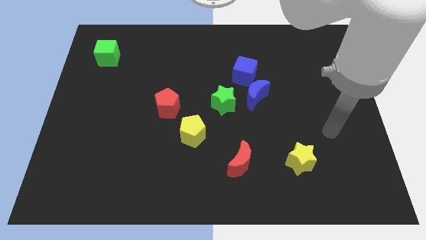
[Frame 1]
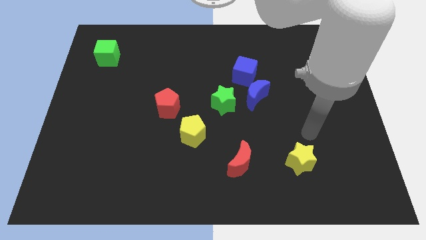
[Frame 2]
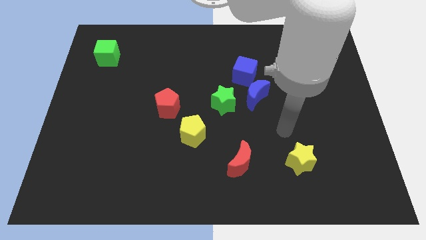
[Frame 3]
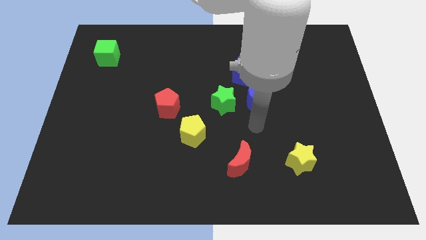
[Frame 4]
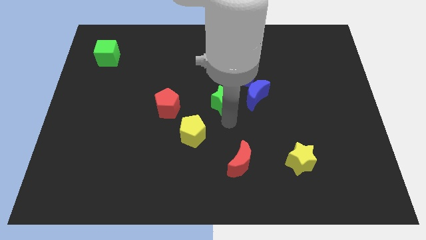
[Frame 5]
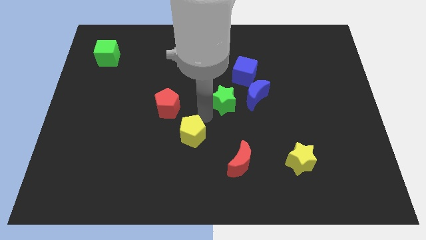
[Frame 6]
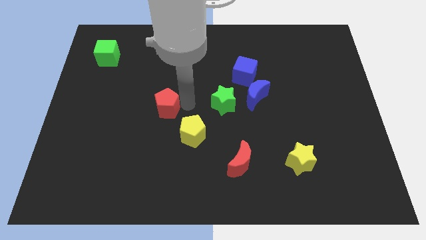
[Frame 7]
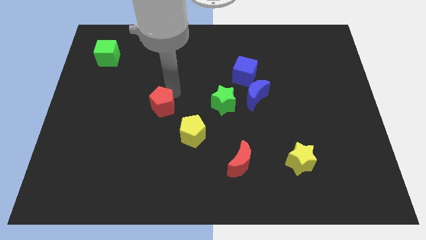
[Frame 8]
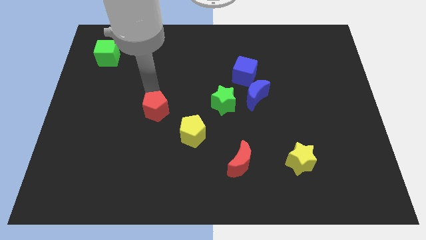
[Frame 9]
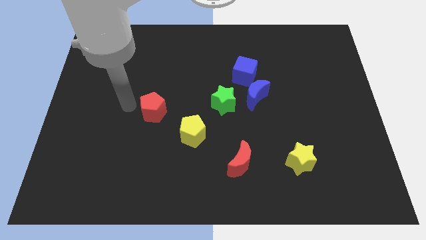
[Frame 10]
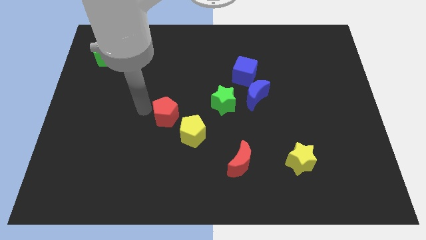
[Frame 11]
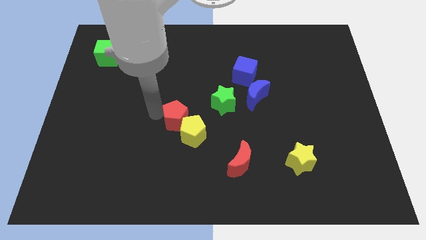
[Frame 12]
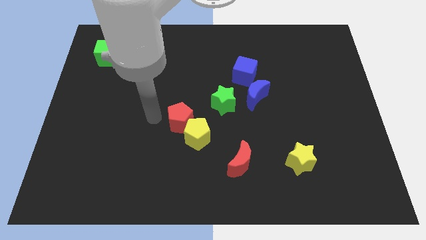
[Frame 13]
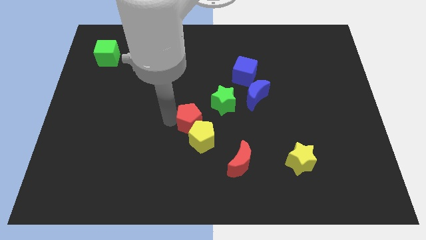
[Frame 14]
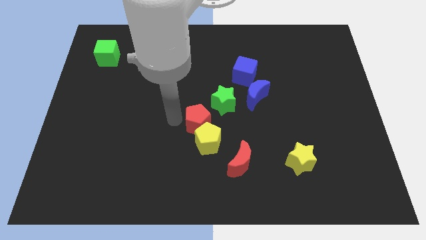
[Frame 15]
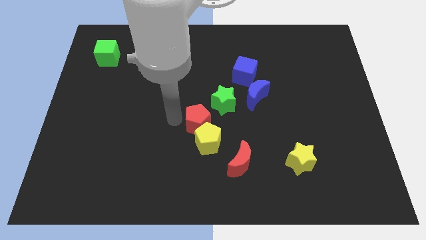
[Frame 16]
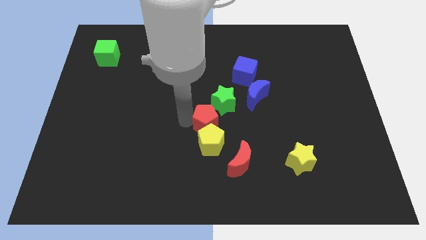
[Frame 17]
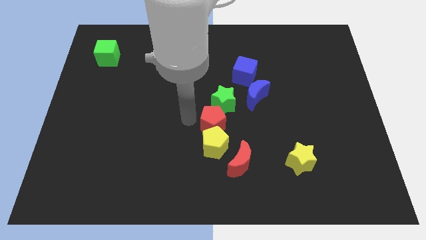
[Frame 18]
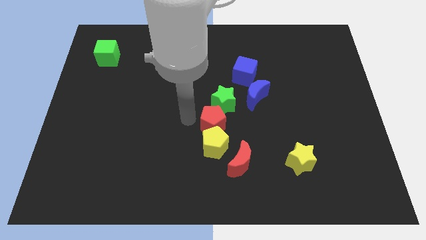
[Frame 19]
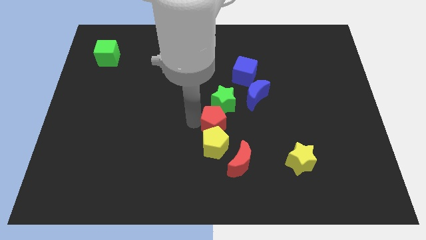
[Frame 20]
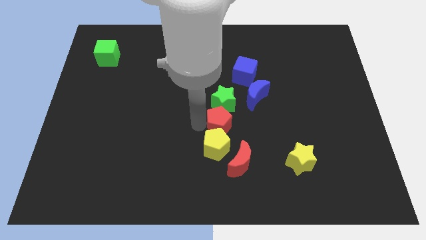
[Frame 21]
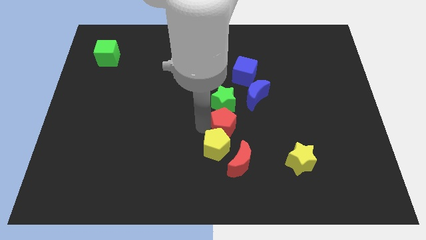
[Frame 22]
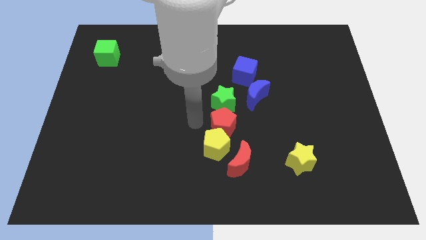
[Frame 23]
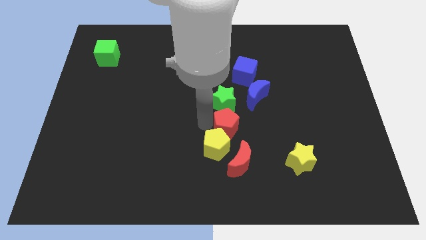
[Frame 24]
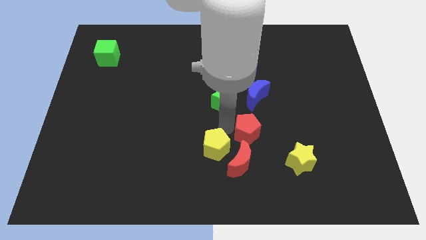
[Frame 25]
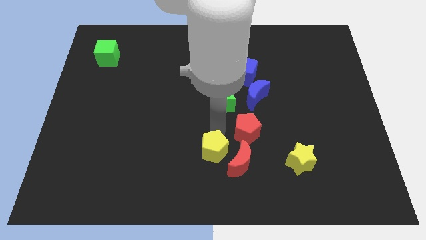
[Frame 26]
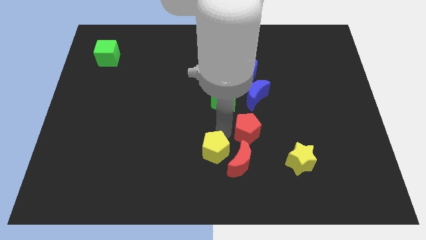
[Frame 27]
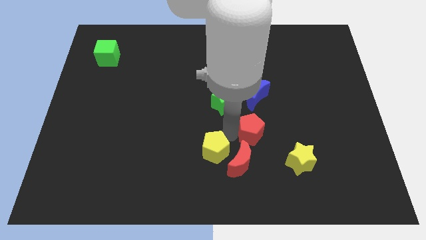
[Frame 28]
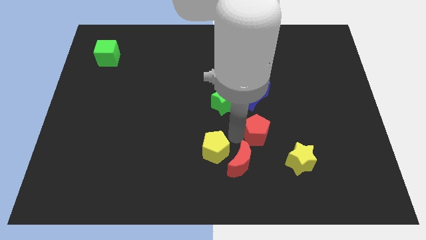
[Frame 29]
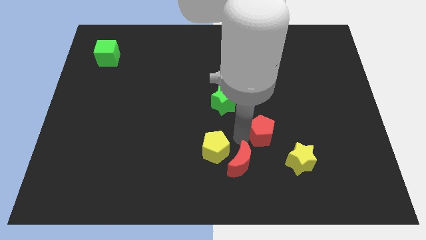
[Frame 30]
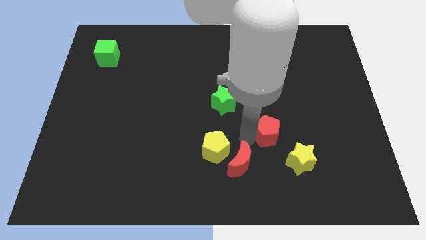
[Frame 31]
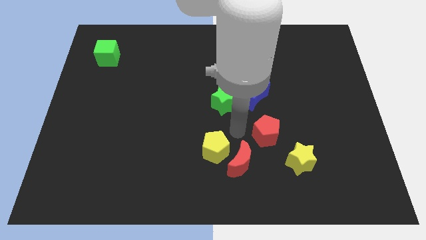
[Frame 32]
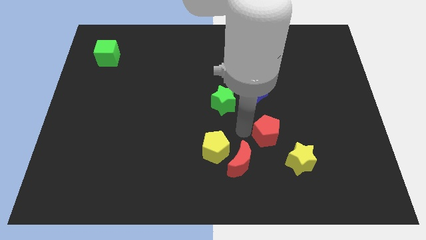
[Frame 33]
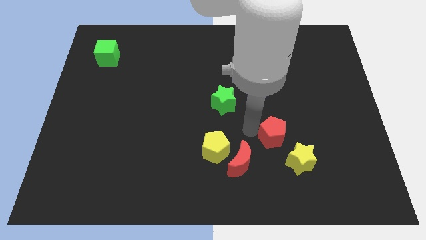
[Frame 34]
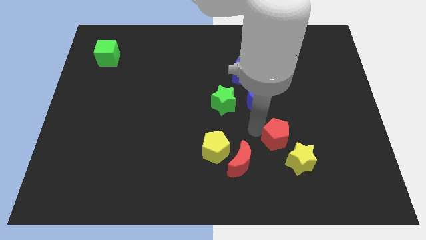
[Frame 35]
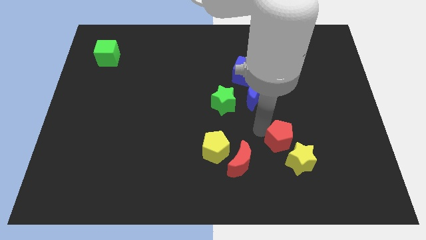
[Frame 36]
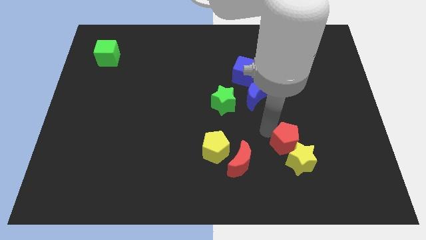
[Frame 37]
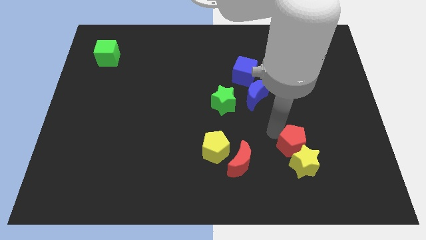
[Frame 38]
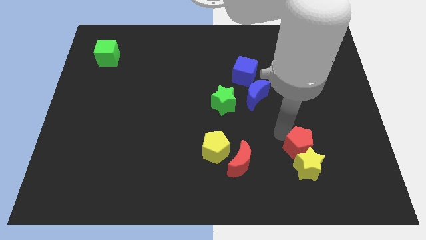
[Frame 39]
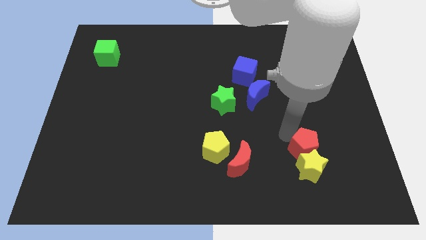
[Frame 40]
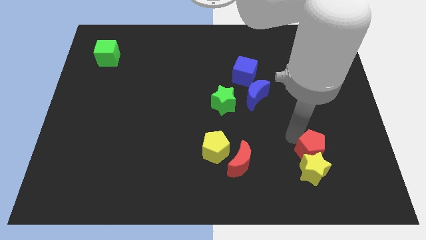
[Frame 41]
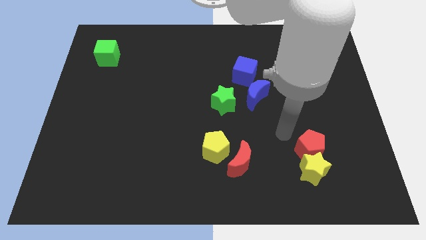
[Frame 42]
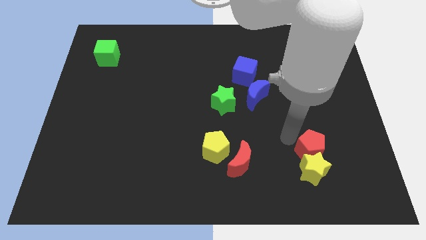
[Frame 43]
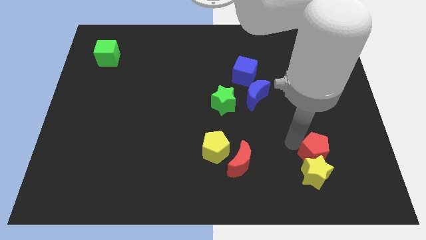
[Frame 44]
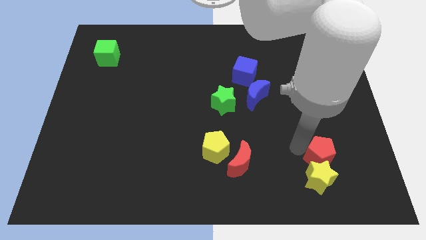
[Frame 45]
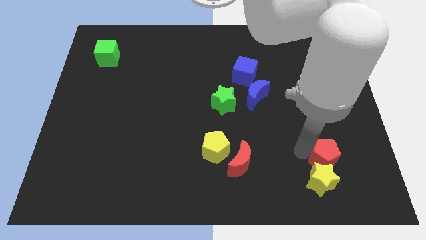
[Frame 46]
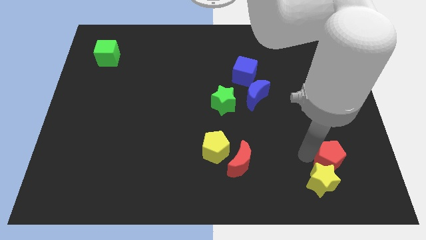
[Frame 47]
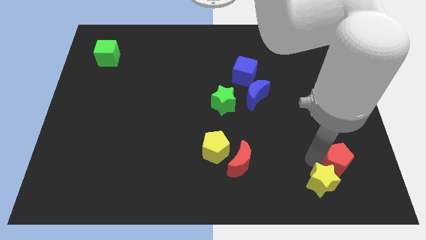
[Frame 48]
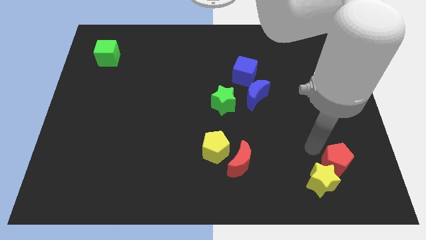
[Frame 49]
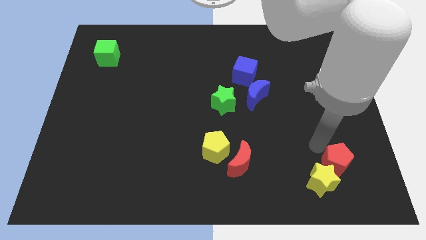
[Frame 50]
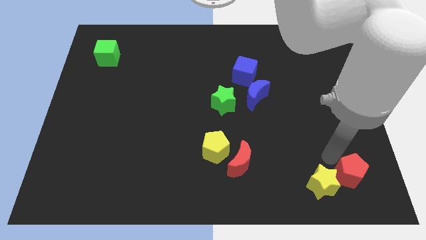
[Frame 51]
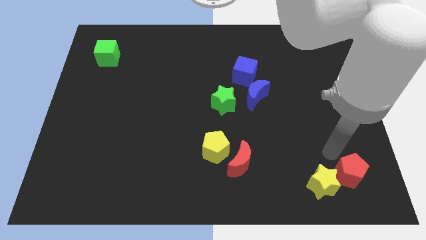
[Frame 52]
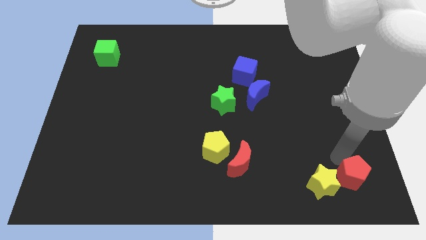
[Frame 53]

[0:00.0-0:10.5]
move the red pentagon to the bottom right of the board

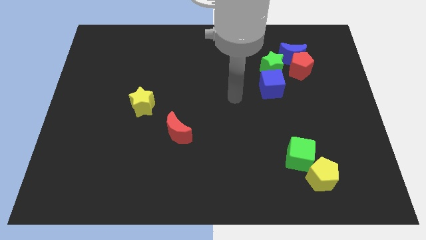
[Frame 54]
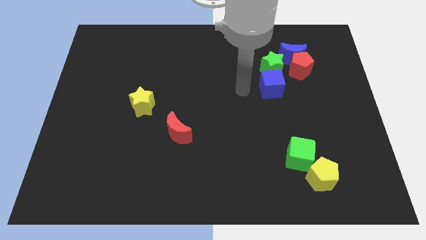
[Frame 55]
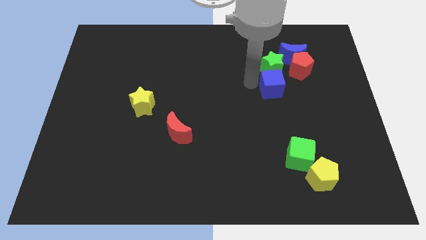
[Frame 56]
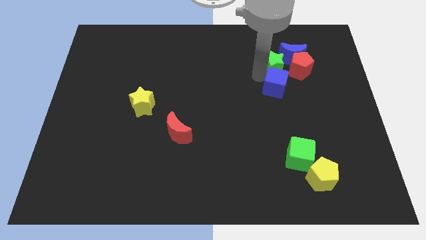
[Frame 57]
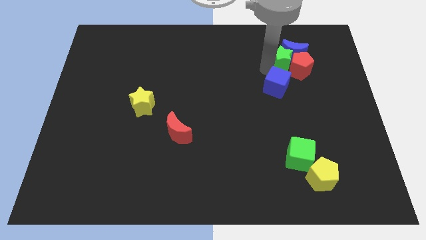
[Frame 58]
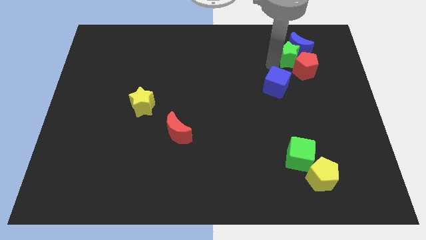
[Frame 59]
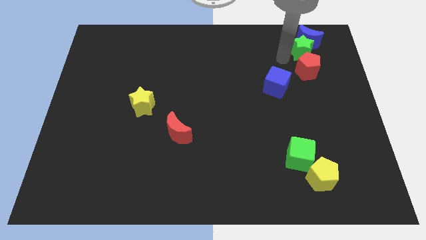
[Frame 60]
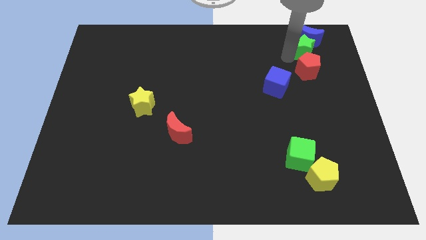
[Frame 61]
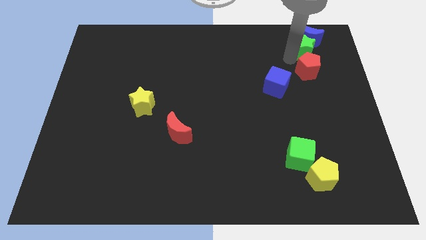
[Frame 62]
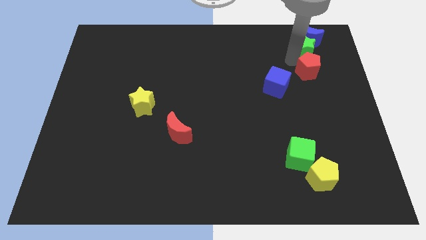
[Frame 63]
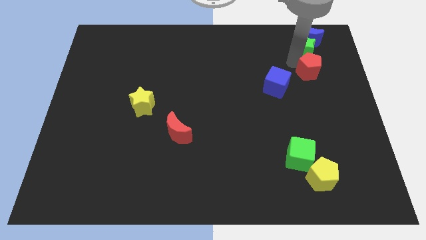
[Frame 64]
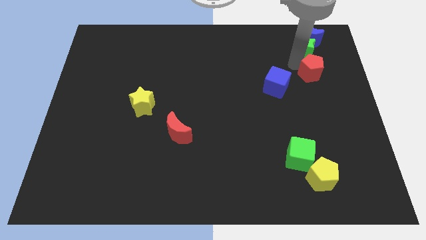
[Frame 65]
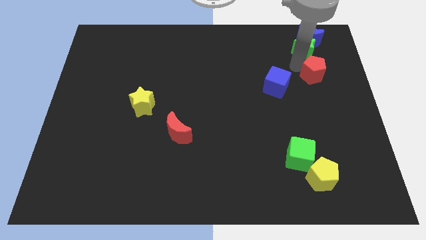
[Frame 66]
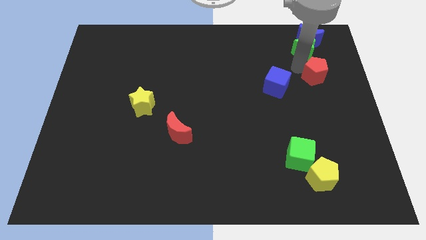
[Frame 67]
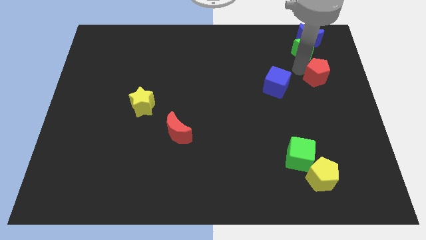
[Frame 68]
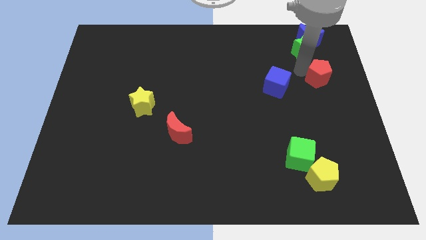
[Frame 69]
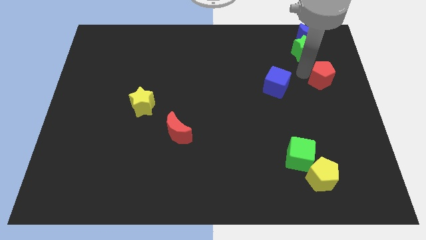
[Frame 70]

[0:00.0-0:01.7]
move the red pentagon to the right side of the board
